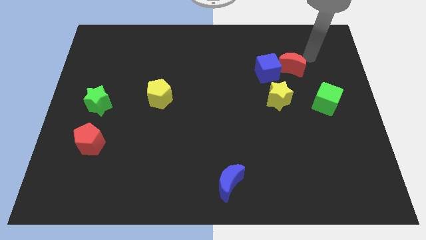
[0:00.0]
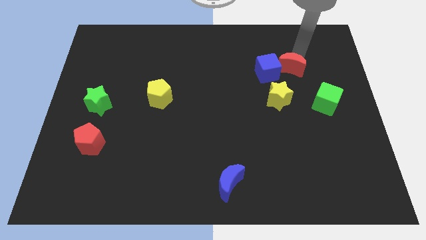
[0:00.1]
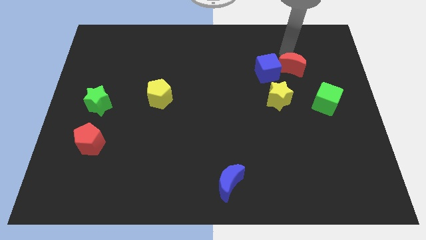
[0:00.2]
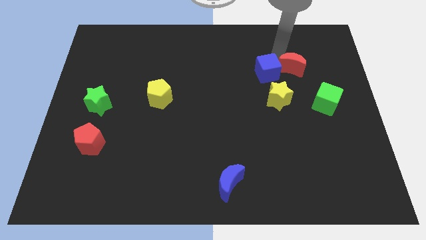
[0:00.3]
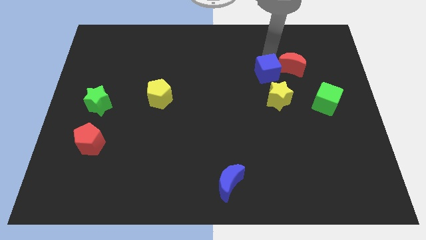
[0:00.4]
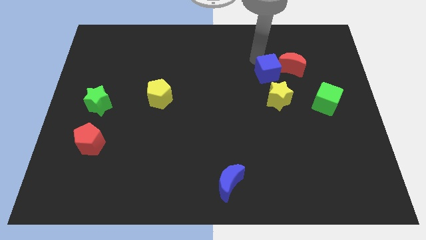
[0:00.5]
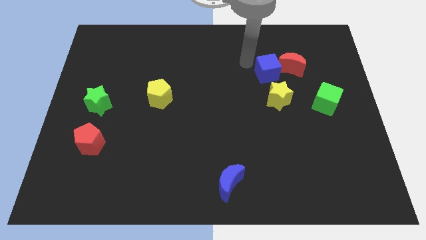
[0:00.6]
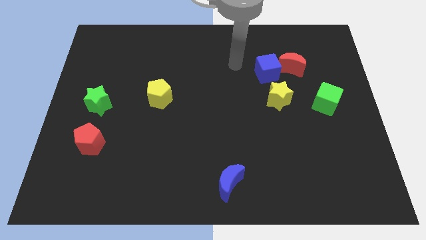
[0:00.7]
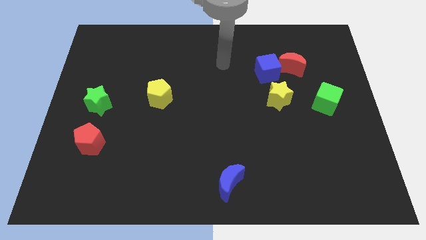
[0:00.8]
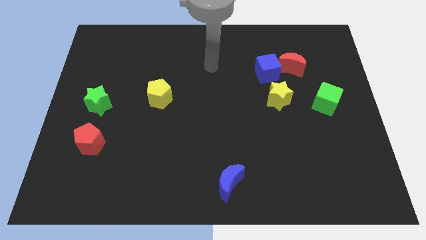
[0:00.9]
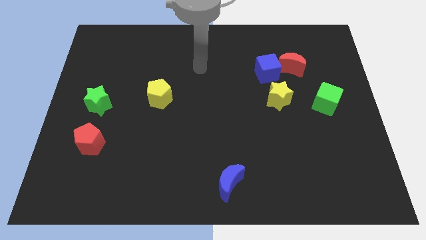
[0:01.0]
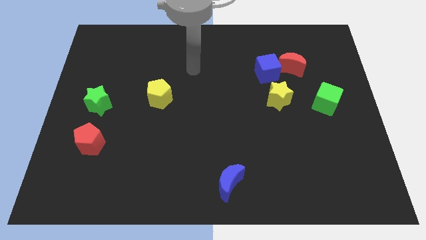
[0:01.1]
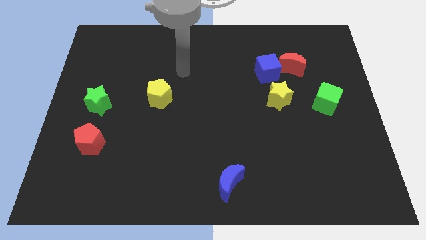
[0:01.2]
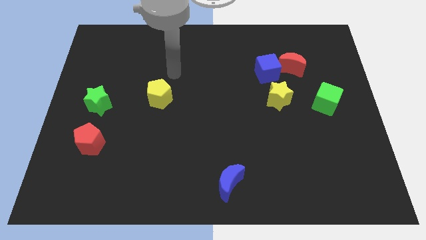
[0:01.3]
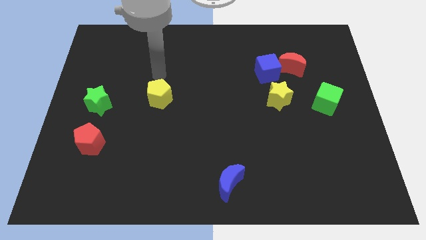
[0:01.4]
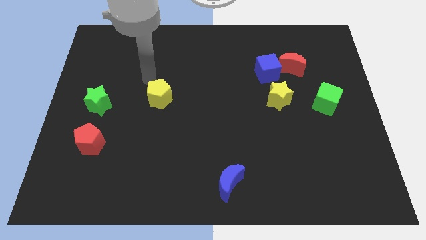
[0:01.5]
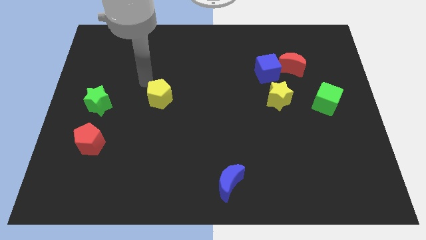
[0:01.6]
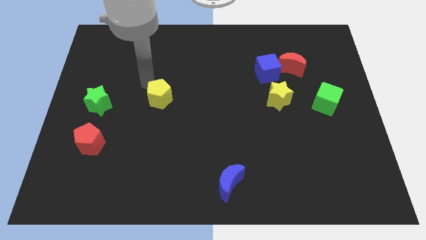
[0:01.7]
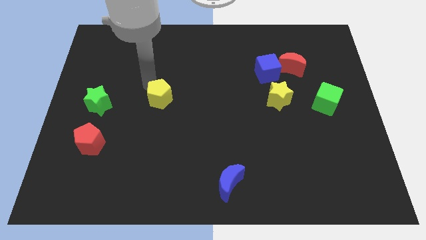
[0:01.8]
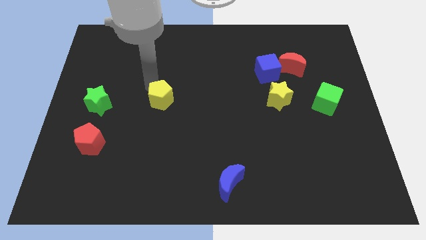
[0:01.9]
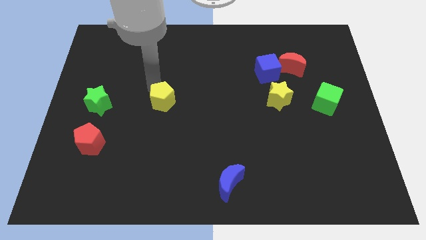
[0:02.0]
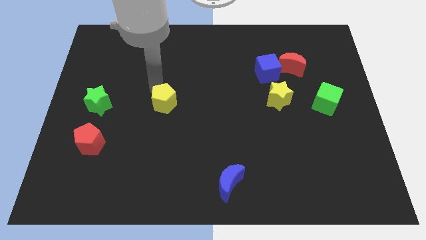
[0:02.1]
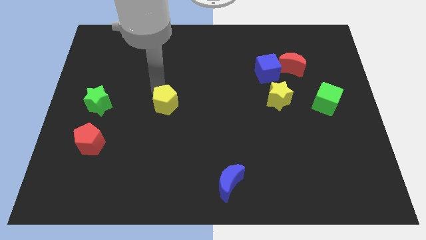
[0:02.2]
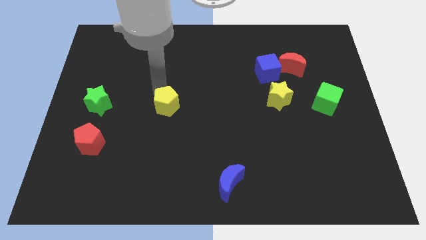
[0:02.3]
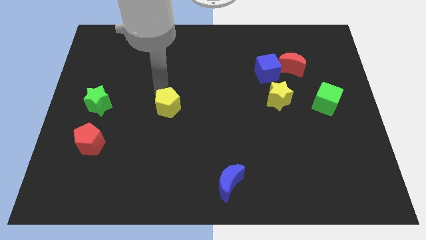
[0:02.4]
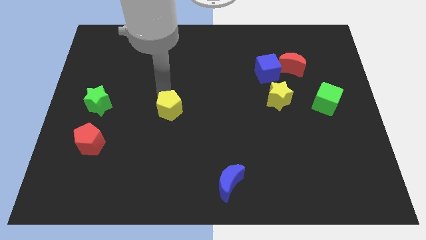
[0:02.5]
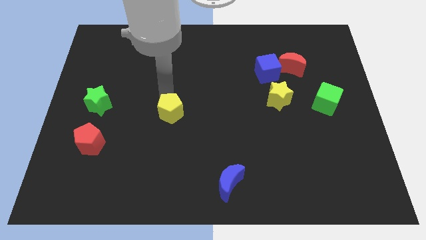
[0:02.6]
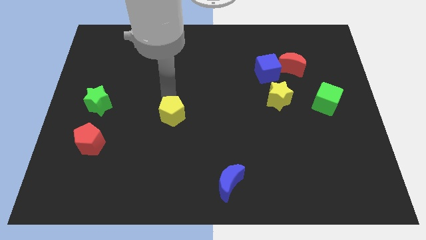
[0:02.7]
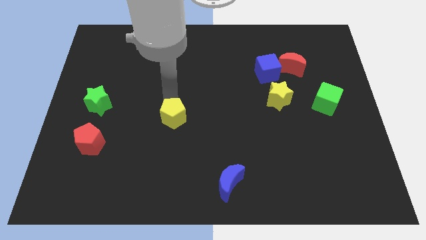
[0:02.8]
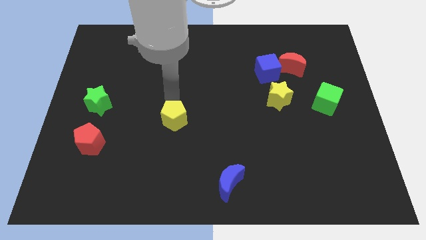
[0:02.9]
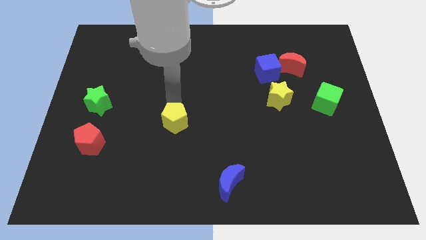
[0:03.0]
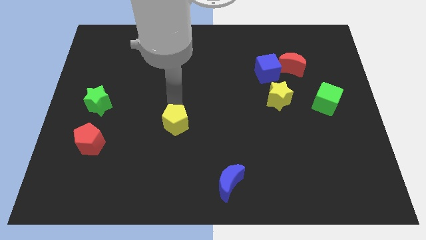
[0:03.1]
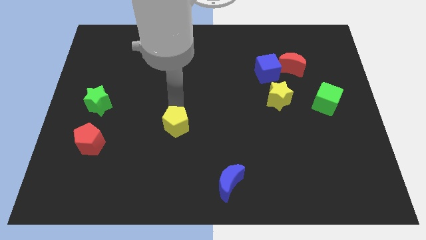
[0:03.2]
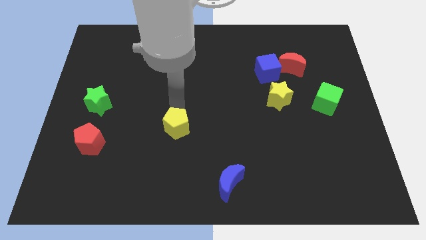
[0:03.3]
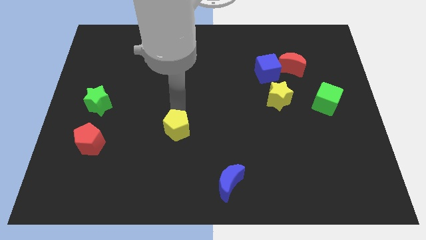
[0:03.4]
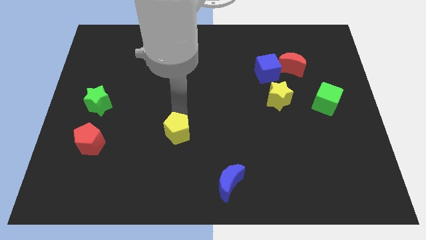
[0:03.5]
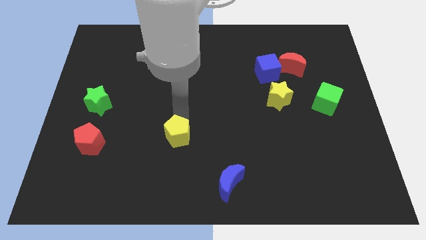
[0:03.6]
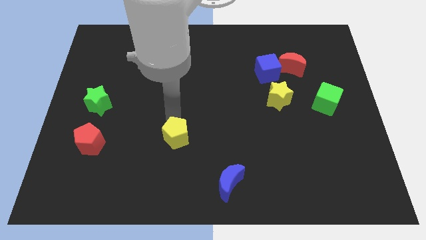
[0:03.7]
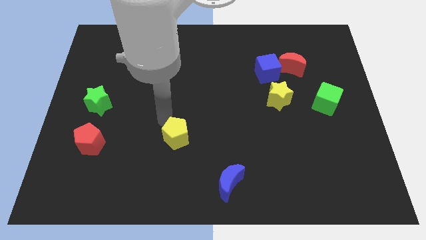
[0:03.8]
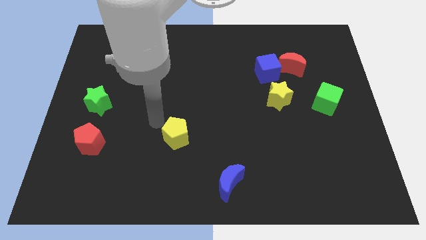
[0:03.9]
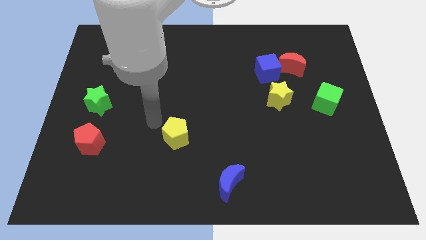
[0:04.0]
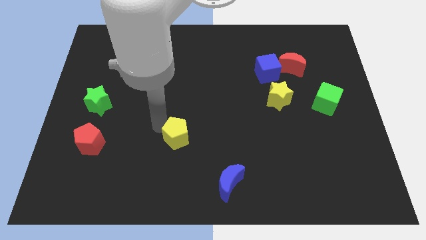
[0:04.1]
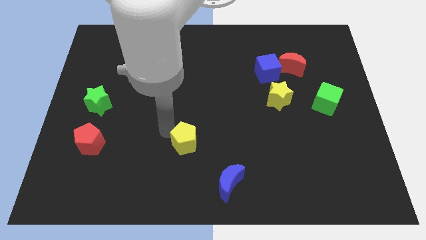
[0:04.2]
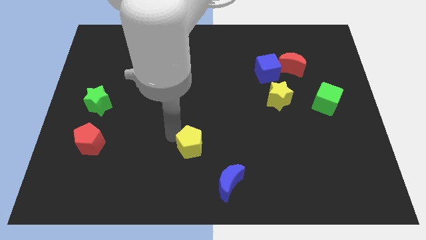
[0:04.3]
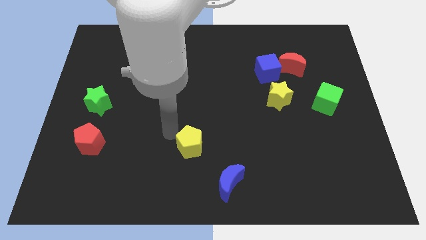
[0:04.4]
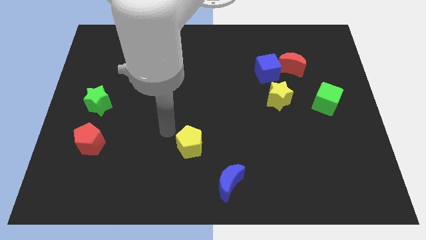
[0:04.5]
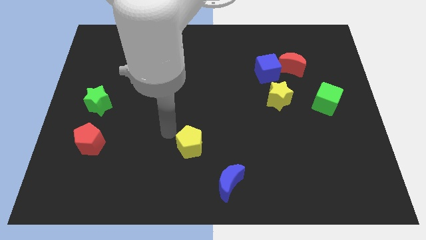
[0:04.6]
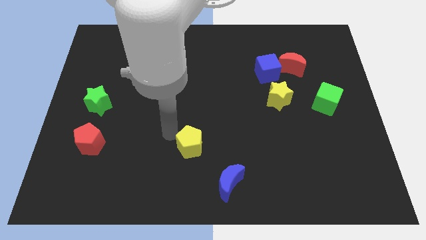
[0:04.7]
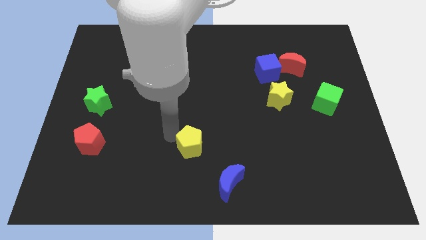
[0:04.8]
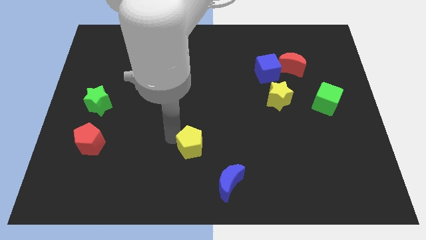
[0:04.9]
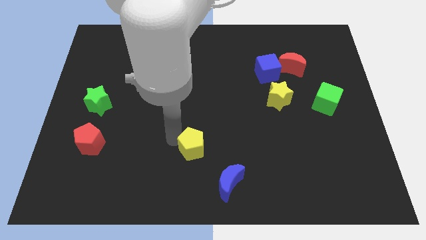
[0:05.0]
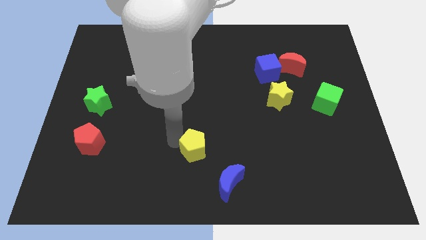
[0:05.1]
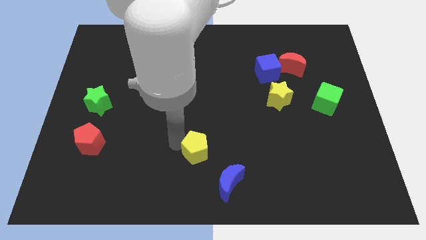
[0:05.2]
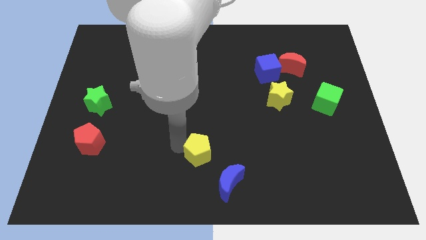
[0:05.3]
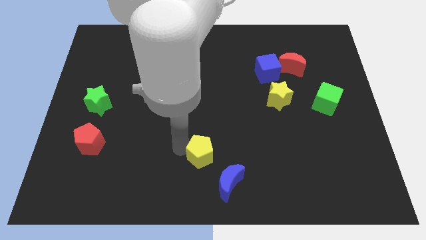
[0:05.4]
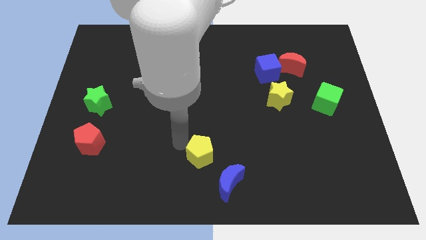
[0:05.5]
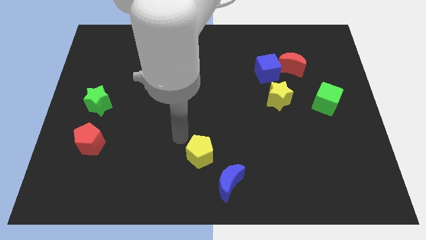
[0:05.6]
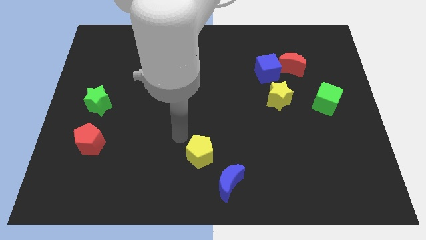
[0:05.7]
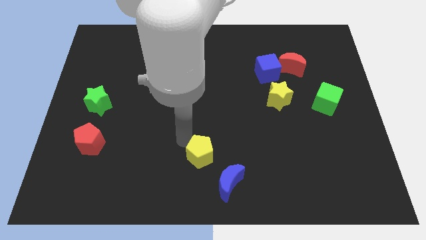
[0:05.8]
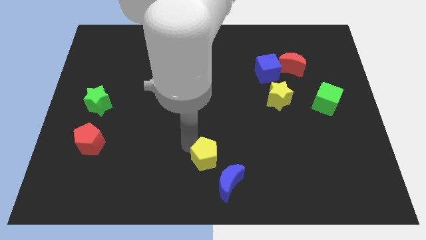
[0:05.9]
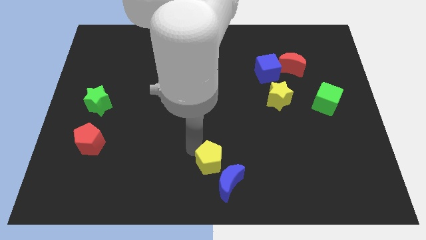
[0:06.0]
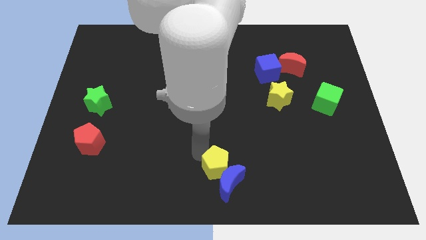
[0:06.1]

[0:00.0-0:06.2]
slide the yellow pentagon close to the blue moon
